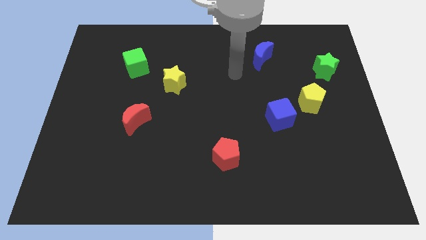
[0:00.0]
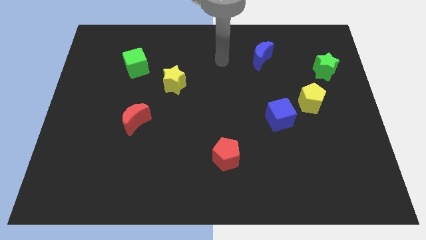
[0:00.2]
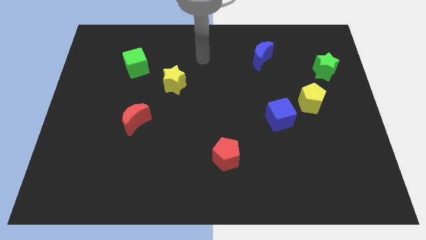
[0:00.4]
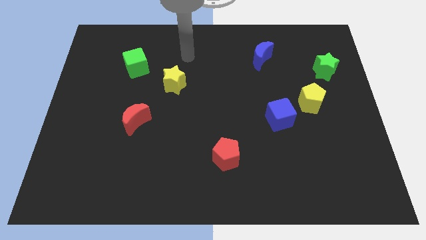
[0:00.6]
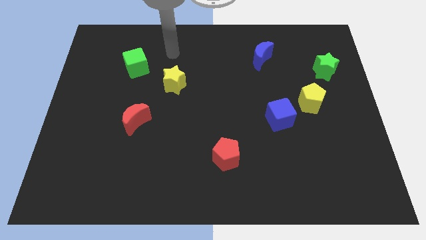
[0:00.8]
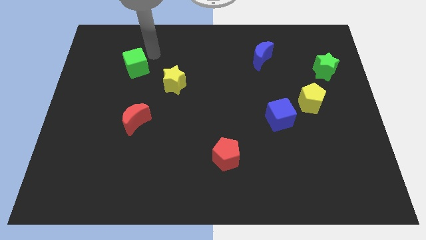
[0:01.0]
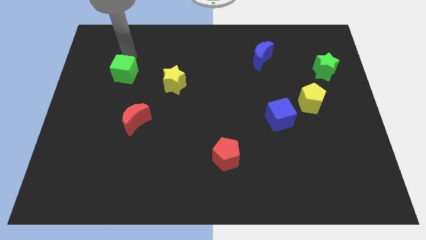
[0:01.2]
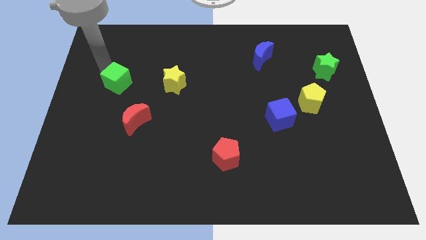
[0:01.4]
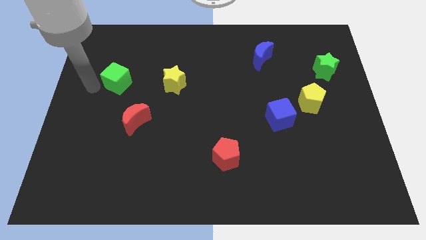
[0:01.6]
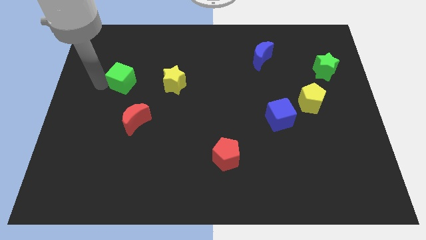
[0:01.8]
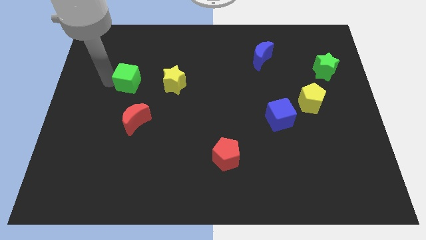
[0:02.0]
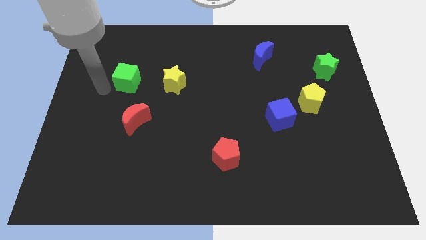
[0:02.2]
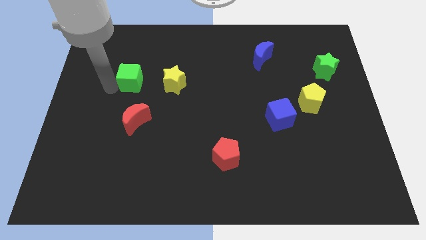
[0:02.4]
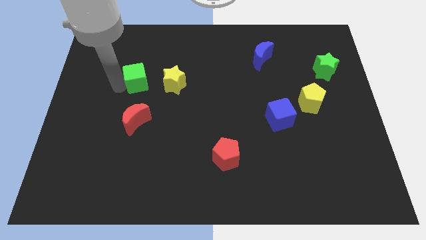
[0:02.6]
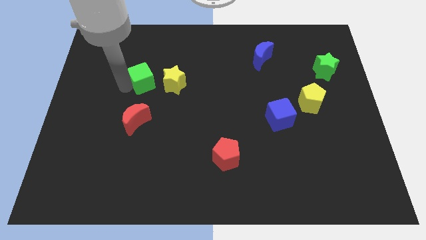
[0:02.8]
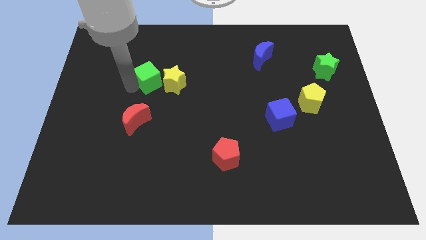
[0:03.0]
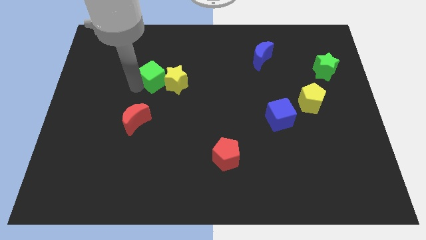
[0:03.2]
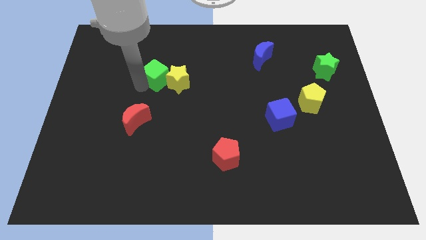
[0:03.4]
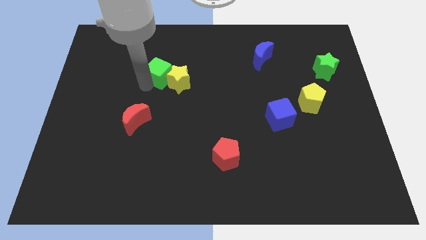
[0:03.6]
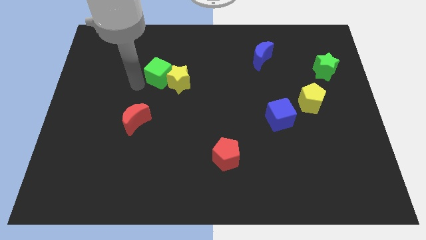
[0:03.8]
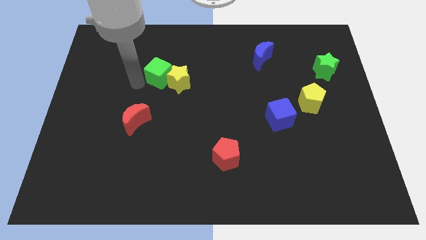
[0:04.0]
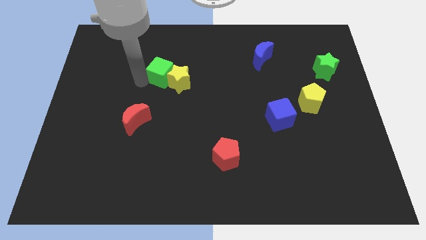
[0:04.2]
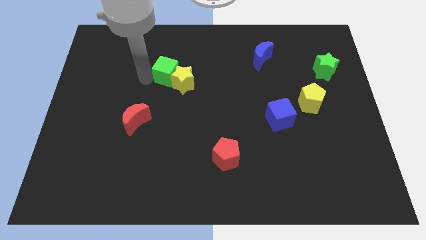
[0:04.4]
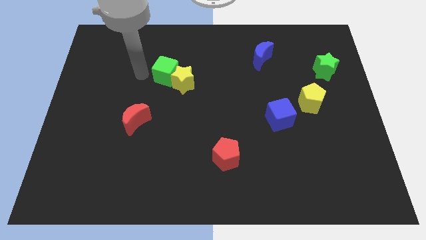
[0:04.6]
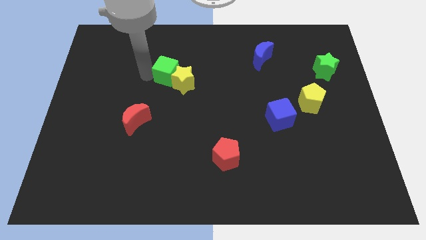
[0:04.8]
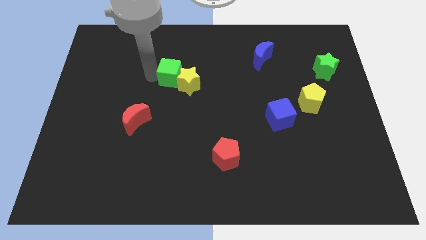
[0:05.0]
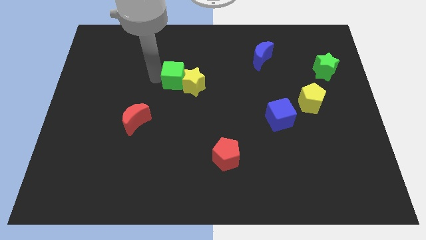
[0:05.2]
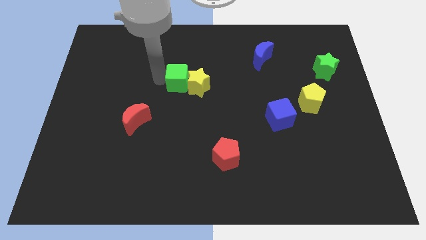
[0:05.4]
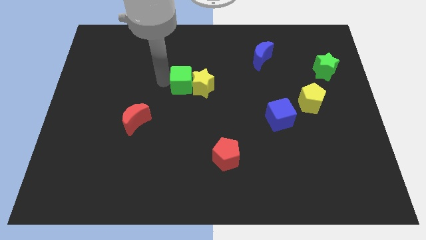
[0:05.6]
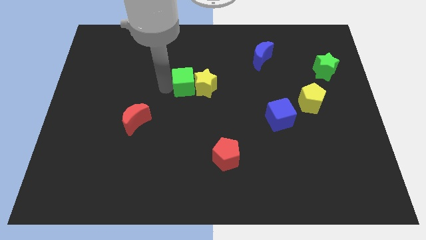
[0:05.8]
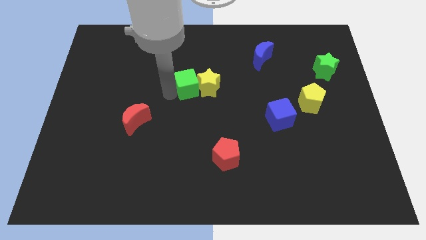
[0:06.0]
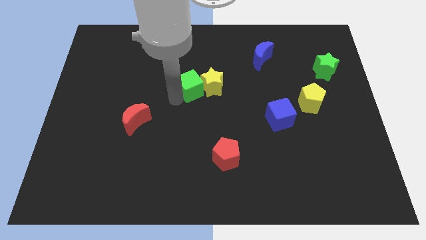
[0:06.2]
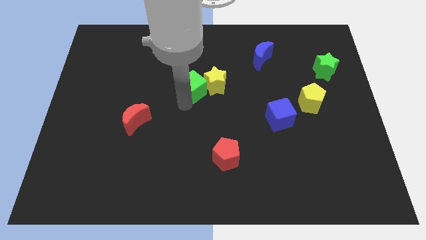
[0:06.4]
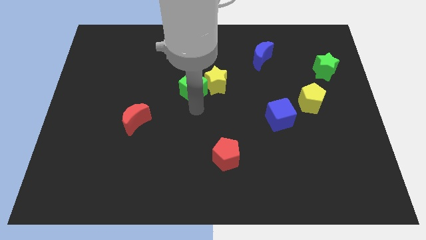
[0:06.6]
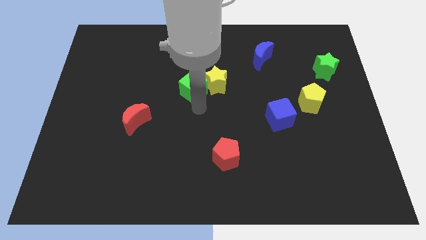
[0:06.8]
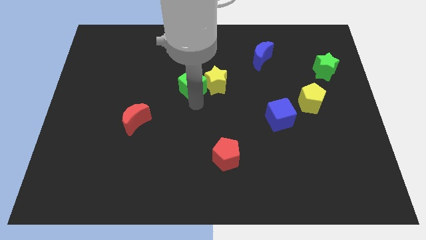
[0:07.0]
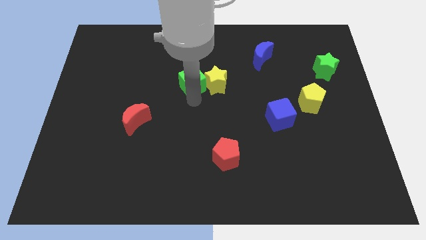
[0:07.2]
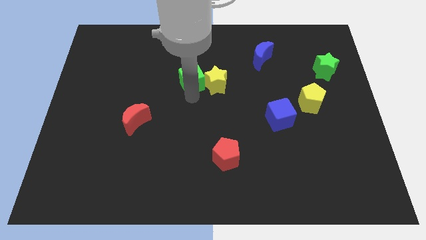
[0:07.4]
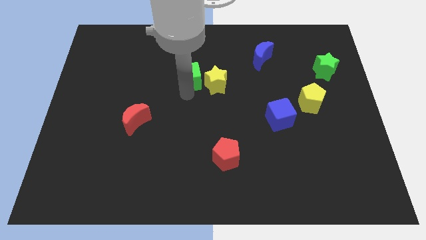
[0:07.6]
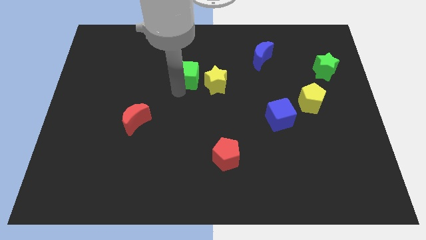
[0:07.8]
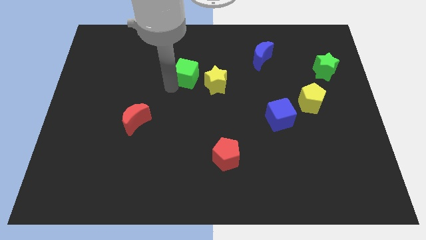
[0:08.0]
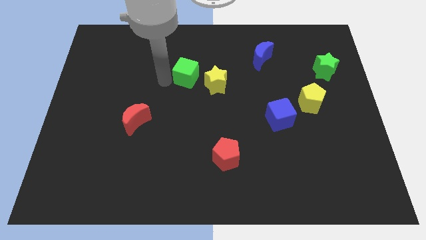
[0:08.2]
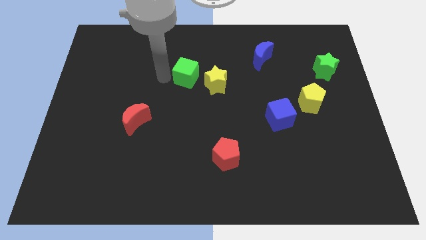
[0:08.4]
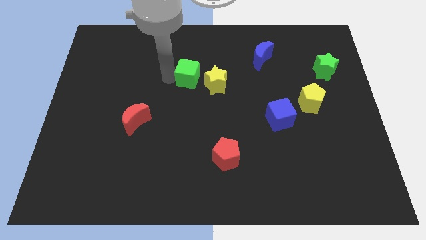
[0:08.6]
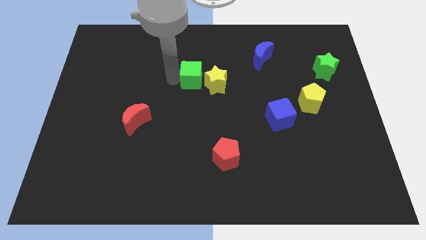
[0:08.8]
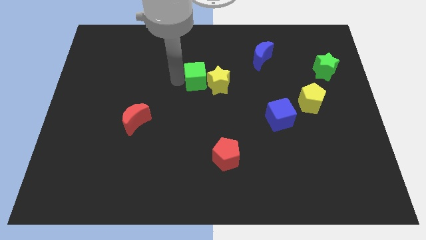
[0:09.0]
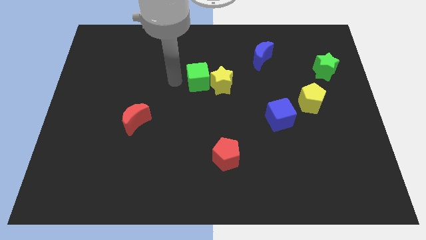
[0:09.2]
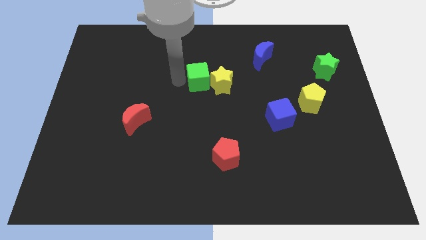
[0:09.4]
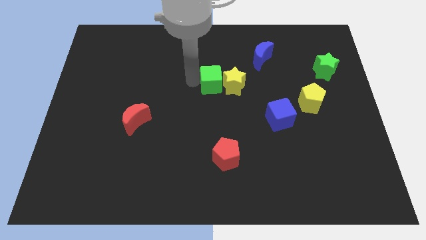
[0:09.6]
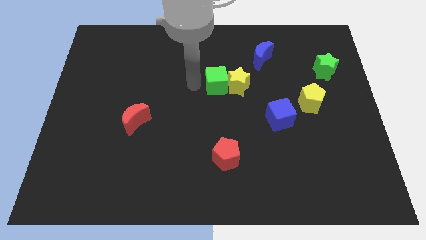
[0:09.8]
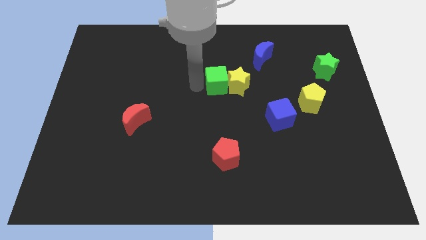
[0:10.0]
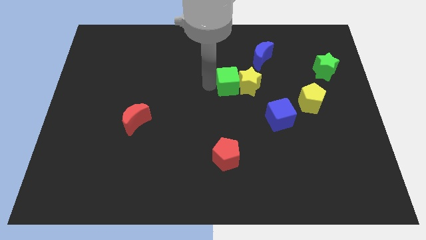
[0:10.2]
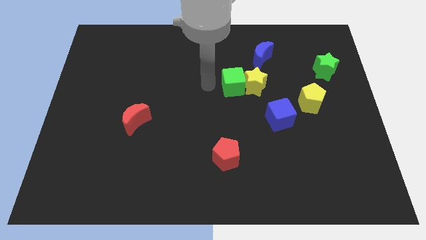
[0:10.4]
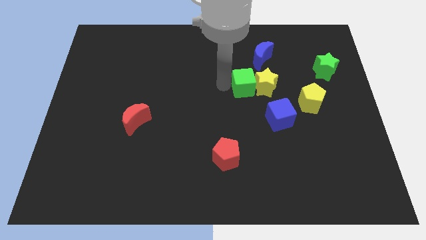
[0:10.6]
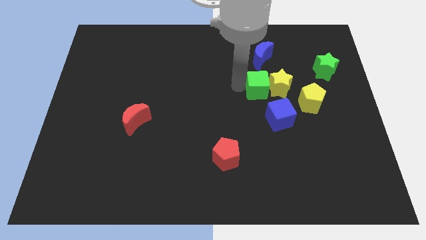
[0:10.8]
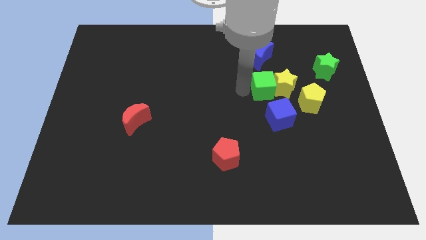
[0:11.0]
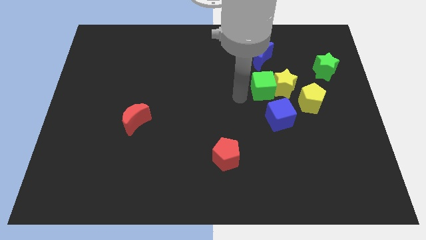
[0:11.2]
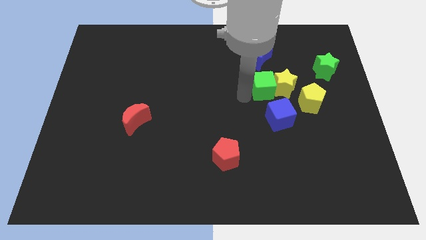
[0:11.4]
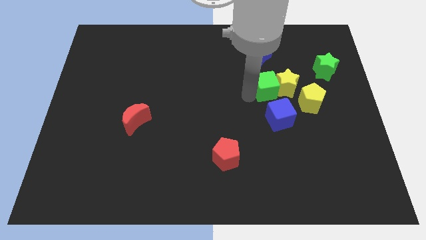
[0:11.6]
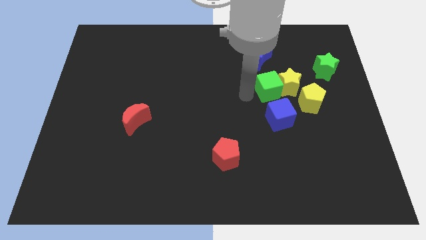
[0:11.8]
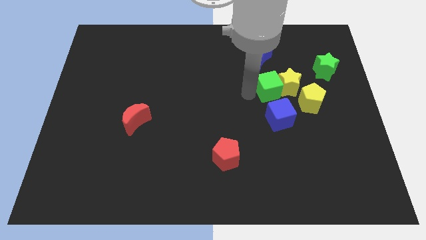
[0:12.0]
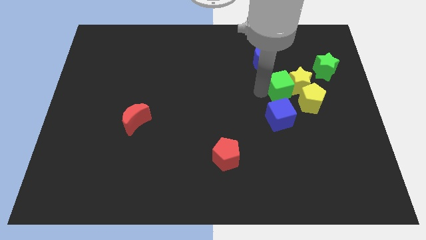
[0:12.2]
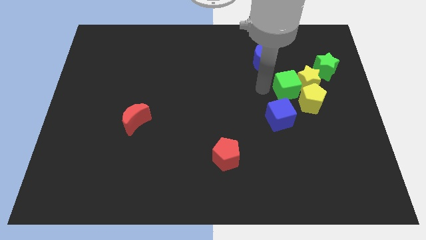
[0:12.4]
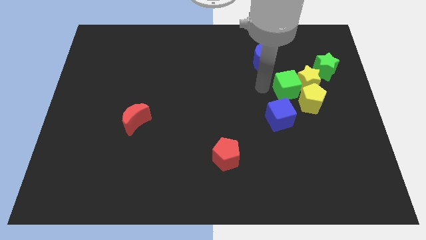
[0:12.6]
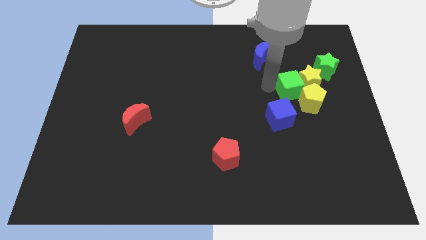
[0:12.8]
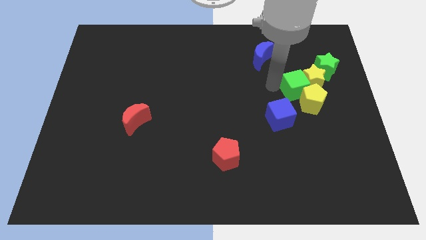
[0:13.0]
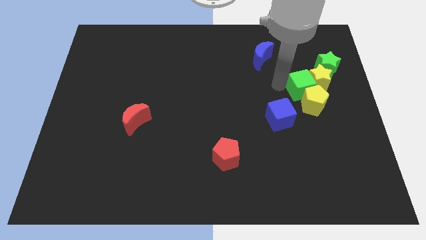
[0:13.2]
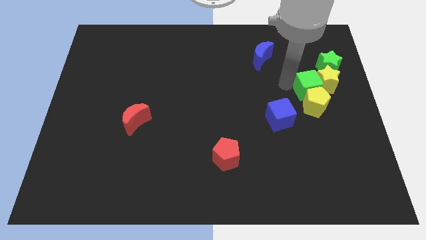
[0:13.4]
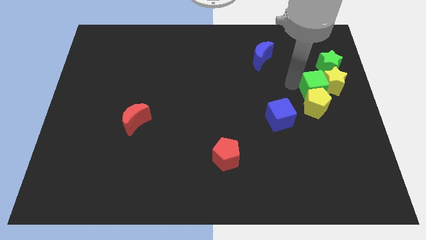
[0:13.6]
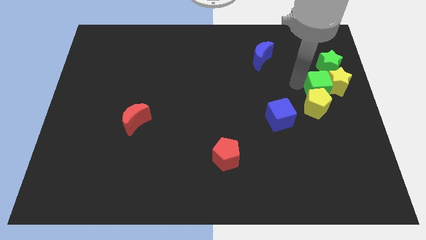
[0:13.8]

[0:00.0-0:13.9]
put the green cube to the right side

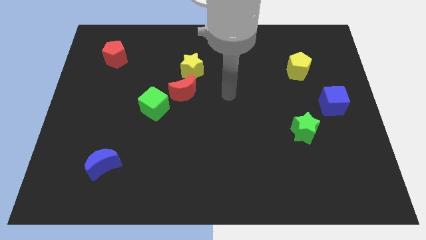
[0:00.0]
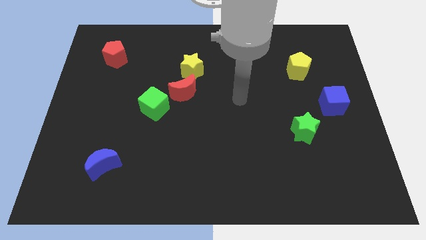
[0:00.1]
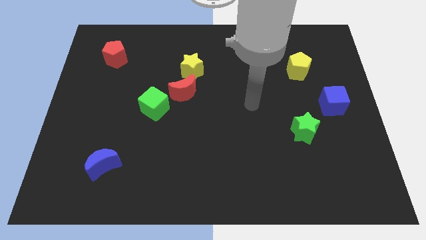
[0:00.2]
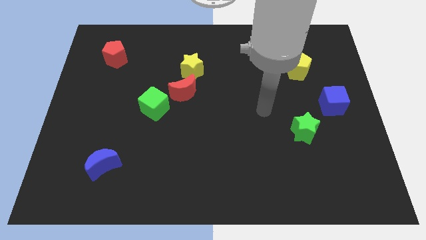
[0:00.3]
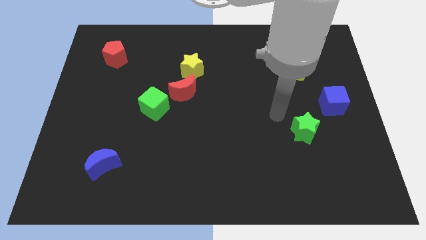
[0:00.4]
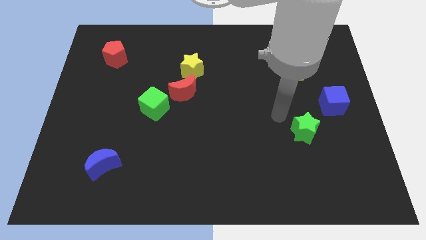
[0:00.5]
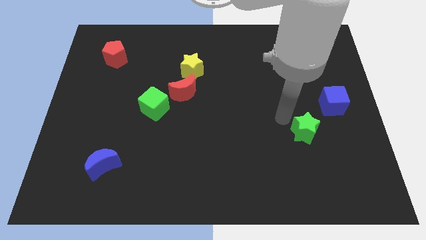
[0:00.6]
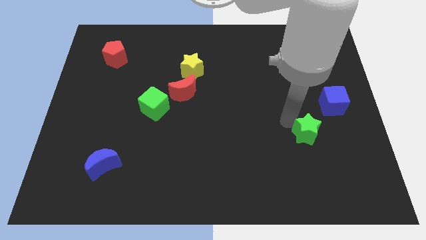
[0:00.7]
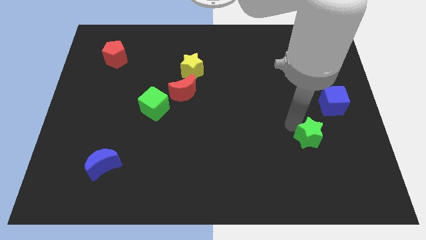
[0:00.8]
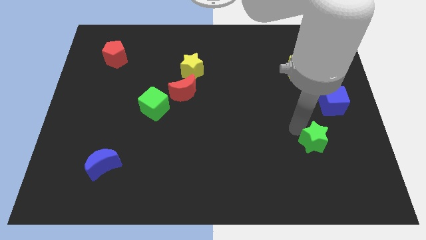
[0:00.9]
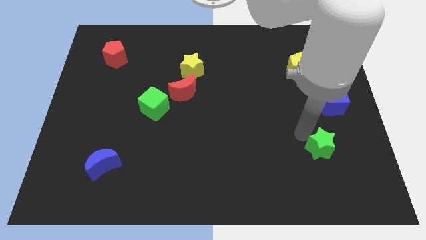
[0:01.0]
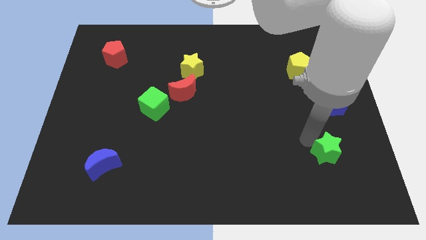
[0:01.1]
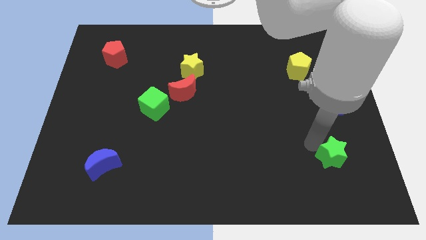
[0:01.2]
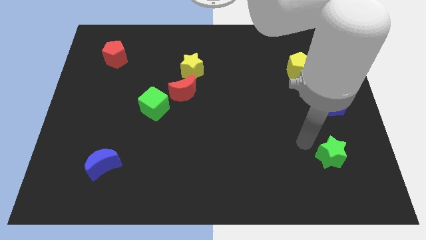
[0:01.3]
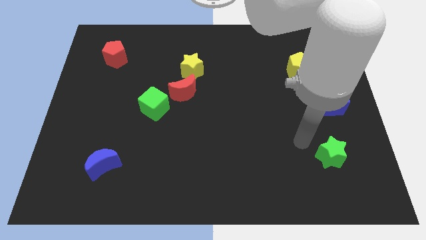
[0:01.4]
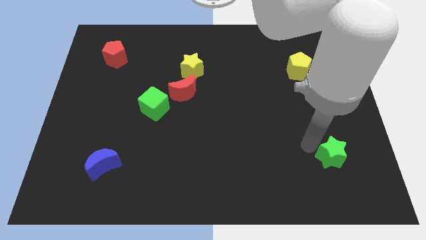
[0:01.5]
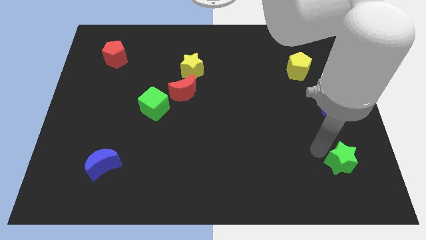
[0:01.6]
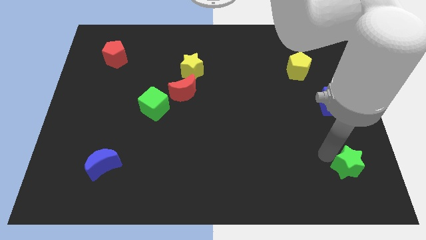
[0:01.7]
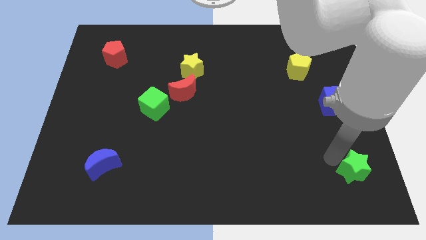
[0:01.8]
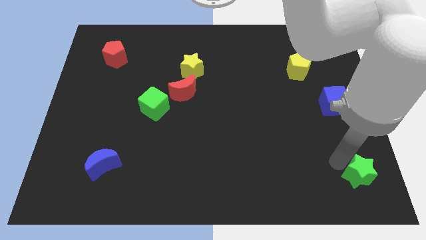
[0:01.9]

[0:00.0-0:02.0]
slide the green star to the bottom right of the board
